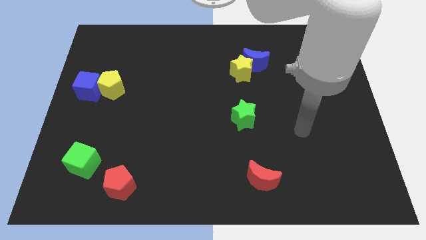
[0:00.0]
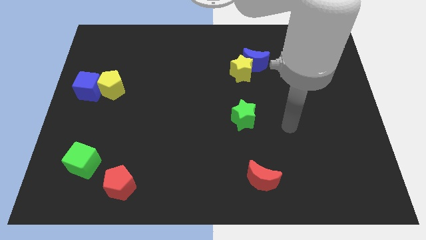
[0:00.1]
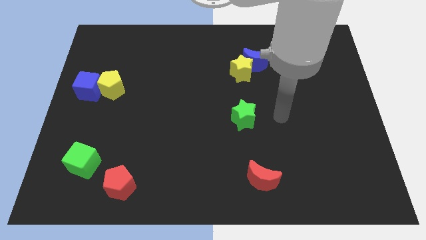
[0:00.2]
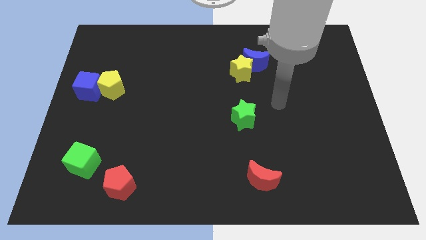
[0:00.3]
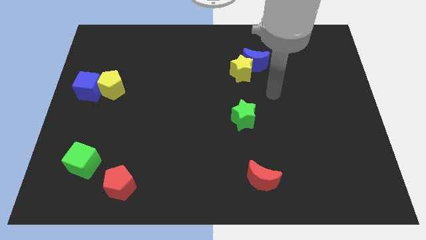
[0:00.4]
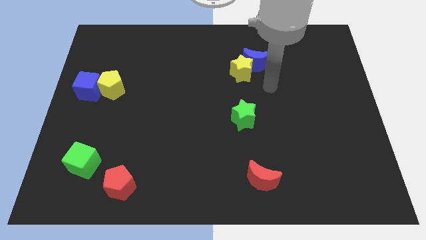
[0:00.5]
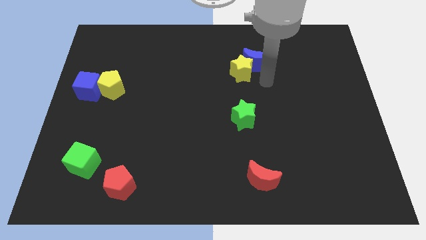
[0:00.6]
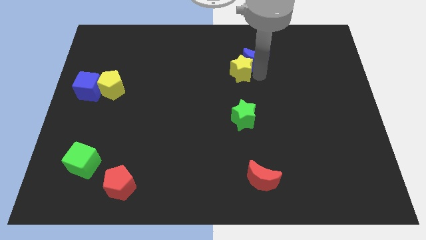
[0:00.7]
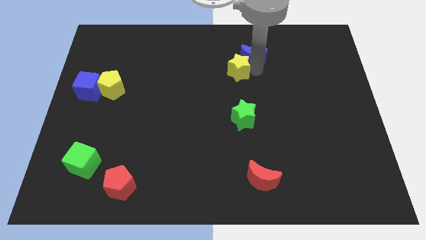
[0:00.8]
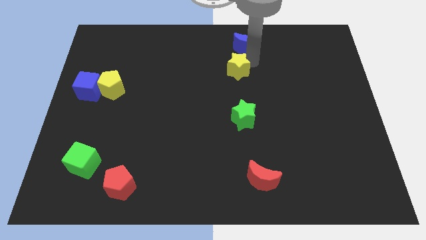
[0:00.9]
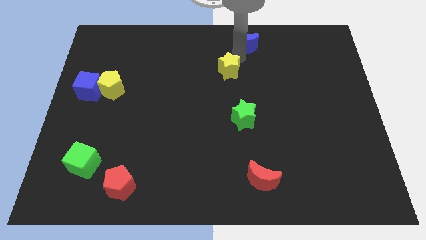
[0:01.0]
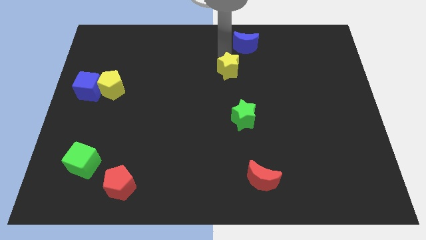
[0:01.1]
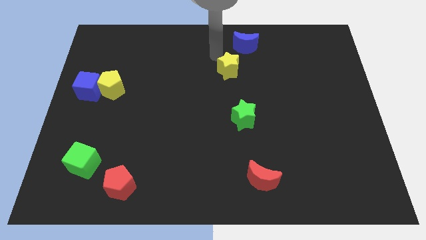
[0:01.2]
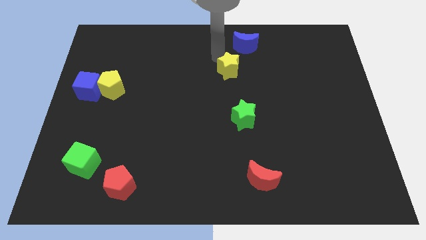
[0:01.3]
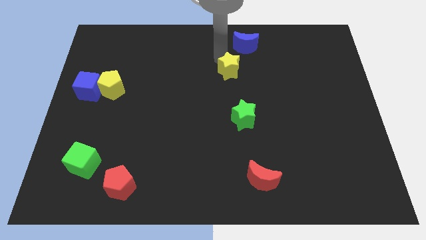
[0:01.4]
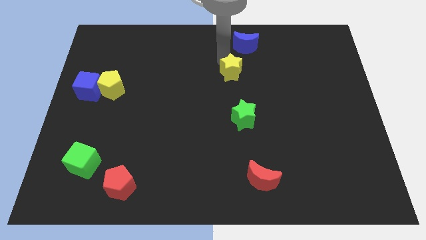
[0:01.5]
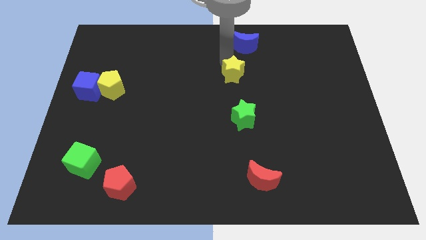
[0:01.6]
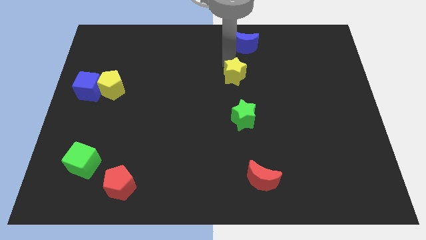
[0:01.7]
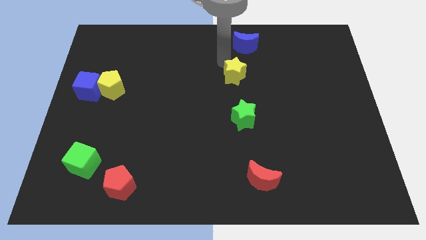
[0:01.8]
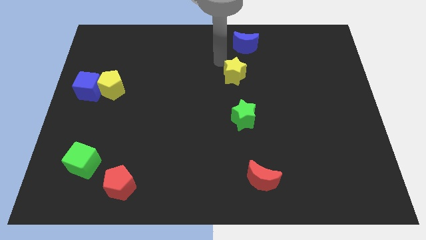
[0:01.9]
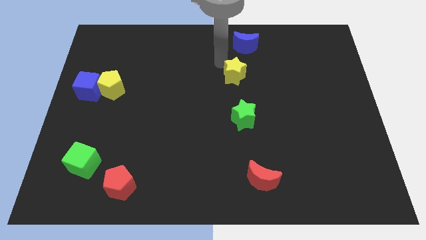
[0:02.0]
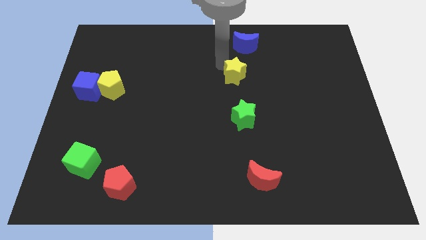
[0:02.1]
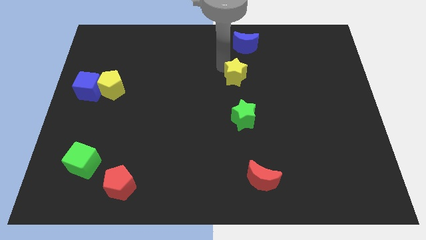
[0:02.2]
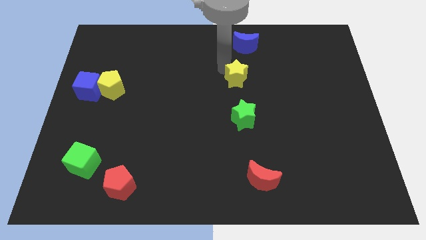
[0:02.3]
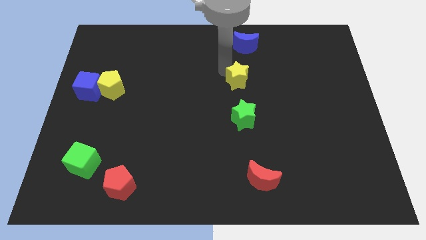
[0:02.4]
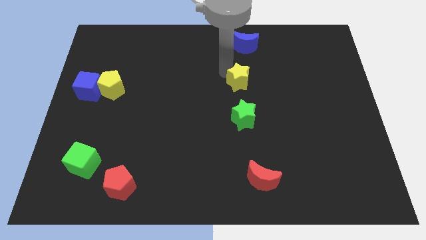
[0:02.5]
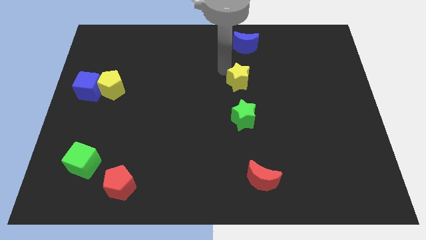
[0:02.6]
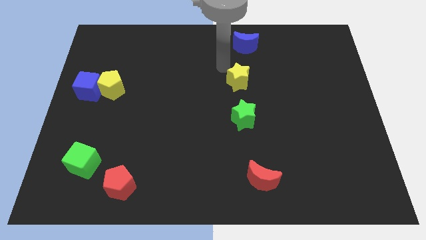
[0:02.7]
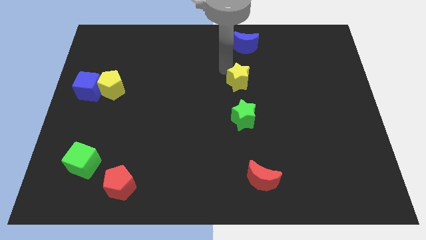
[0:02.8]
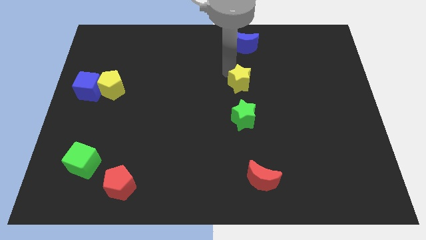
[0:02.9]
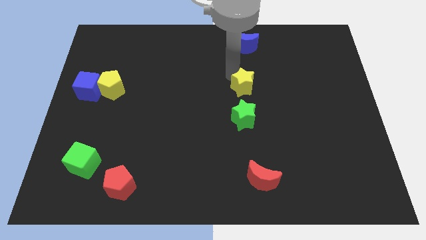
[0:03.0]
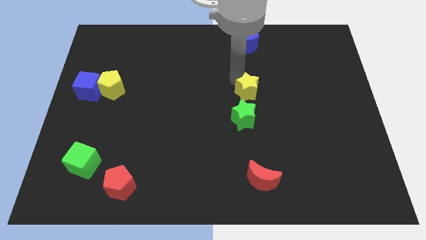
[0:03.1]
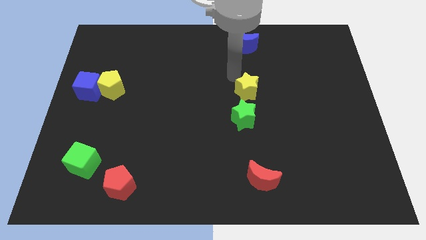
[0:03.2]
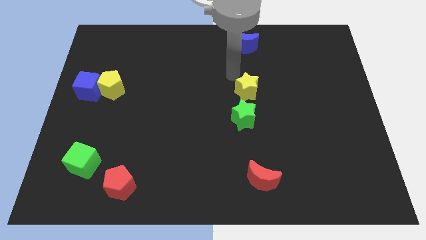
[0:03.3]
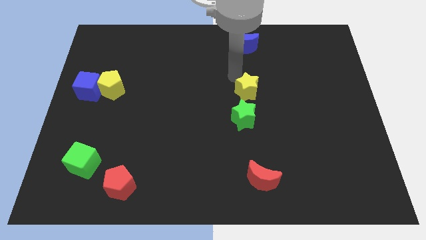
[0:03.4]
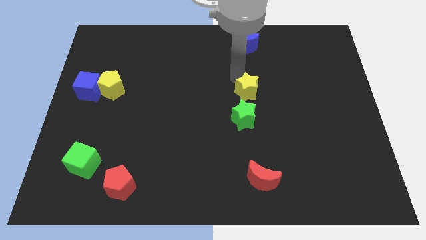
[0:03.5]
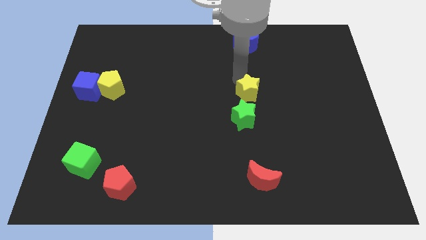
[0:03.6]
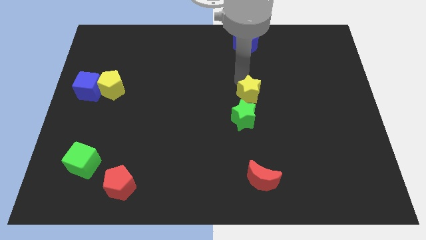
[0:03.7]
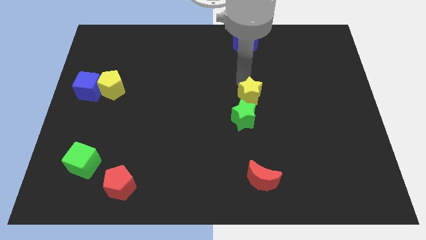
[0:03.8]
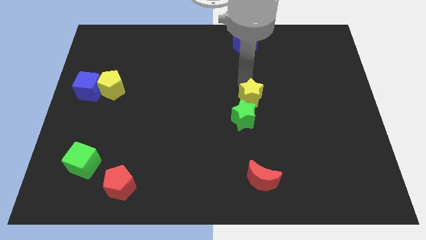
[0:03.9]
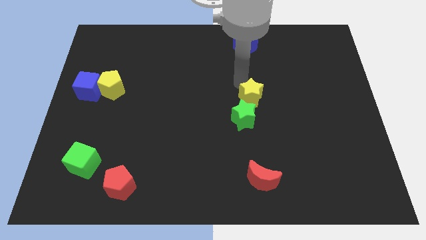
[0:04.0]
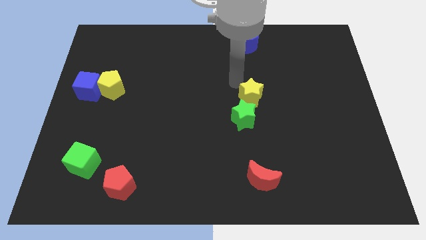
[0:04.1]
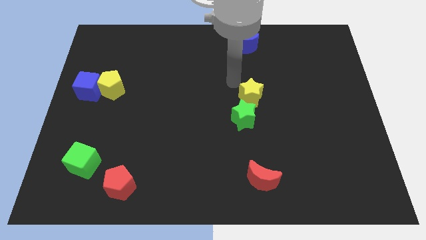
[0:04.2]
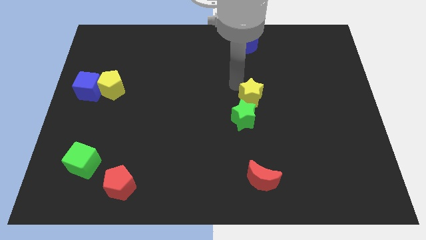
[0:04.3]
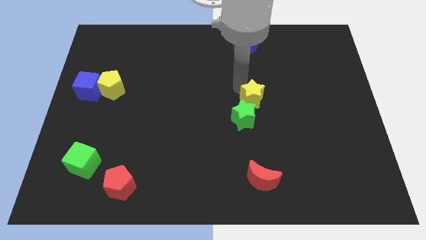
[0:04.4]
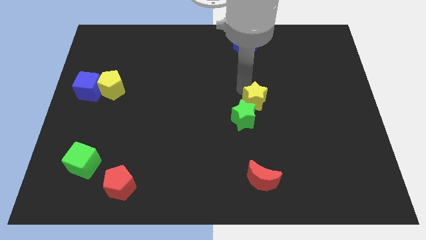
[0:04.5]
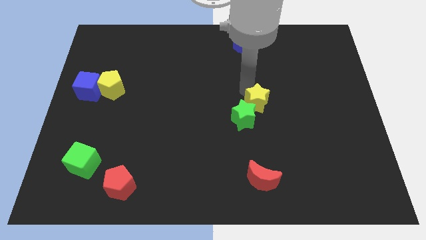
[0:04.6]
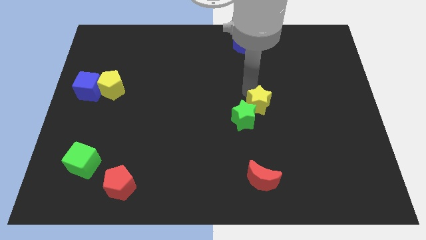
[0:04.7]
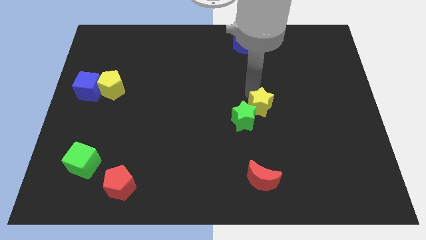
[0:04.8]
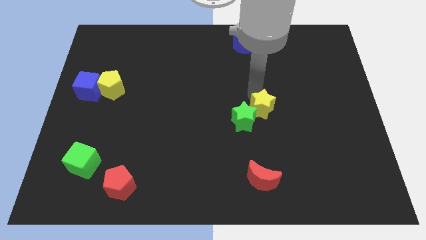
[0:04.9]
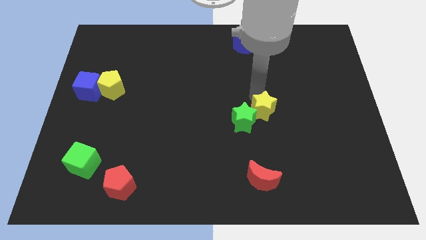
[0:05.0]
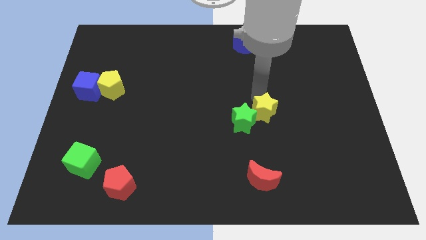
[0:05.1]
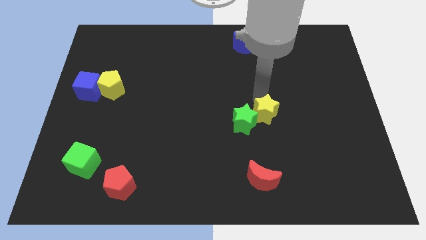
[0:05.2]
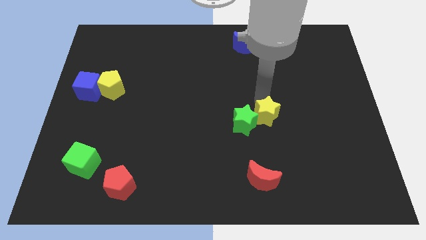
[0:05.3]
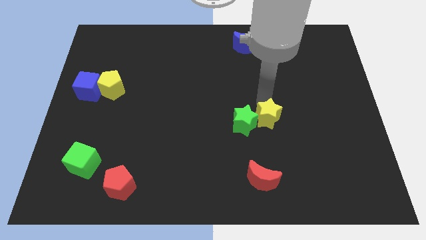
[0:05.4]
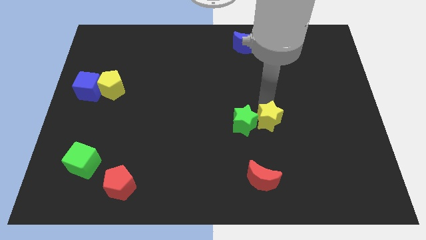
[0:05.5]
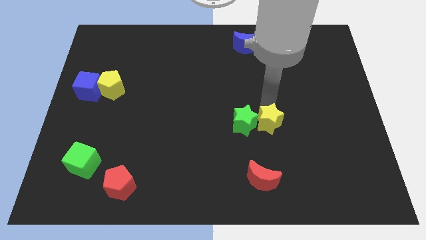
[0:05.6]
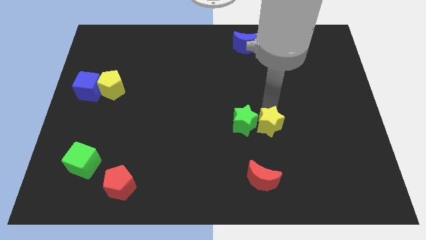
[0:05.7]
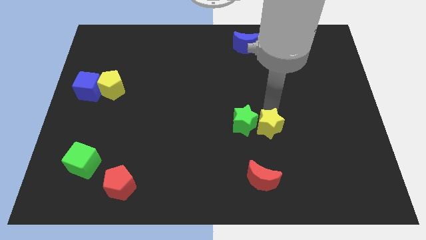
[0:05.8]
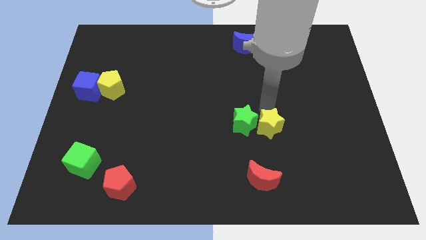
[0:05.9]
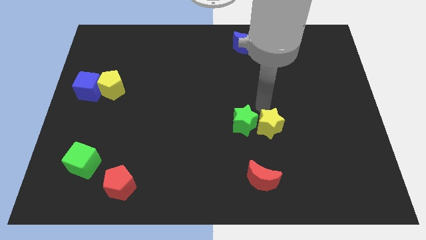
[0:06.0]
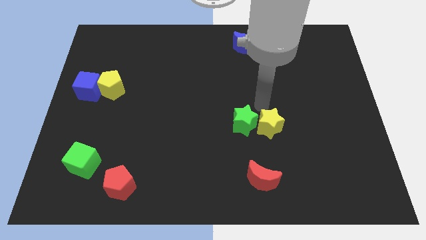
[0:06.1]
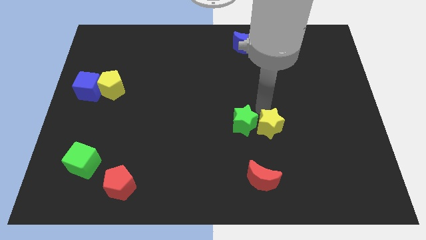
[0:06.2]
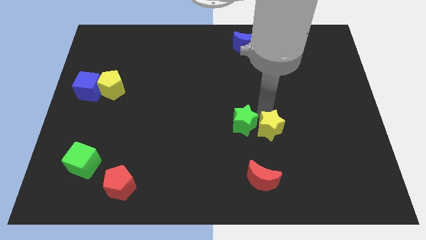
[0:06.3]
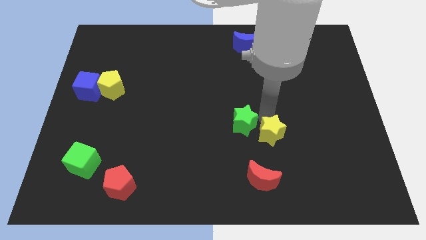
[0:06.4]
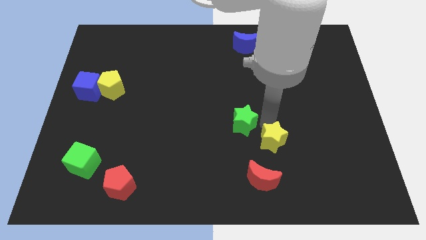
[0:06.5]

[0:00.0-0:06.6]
push the yellow star diagonally up and to the right of the red moon

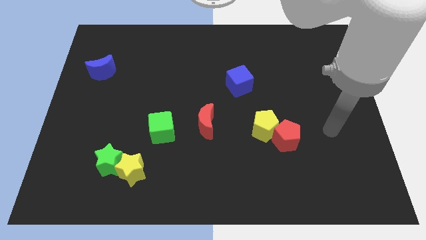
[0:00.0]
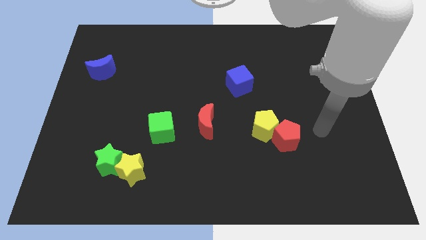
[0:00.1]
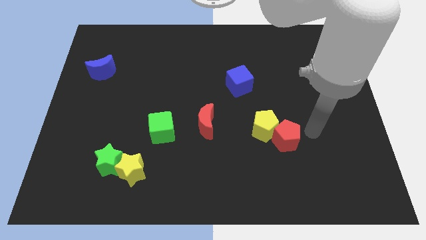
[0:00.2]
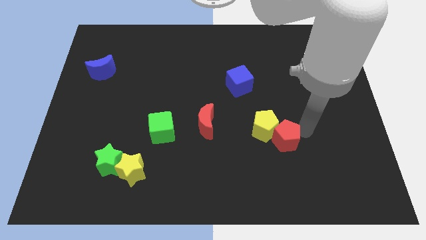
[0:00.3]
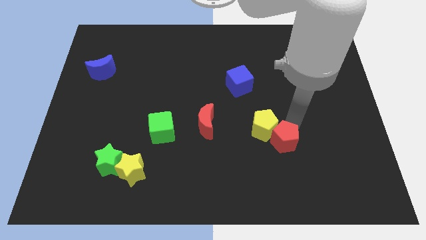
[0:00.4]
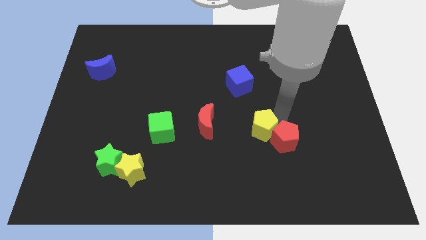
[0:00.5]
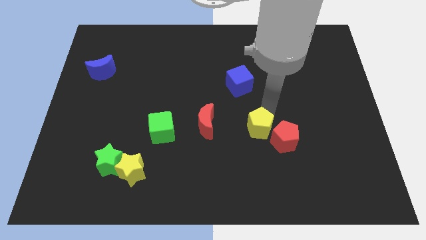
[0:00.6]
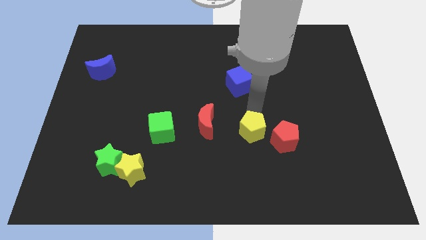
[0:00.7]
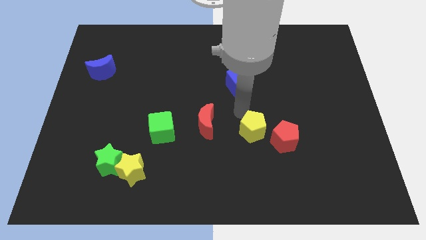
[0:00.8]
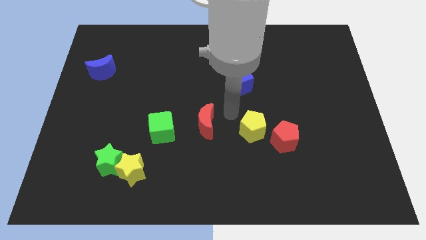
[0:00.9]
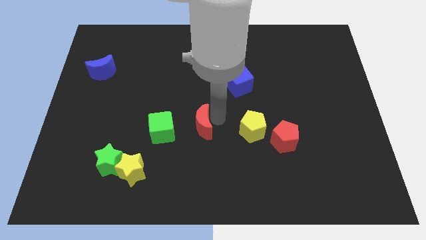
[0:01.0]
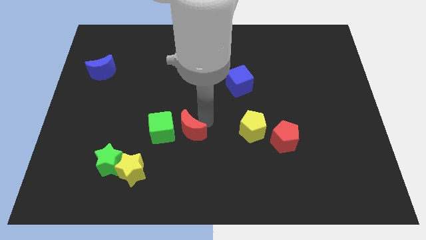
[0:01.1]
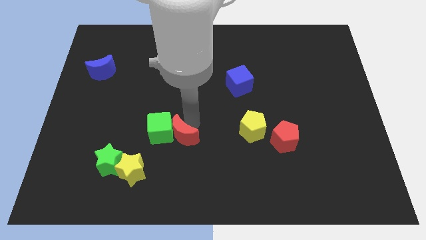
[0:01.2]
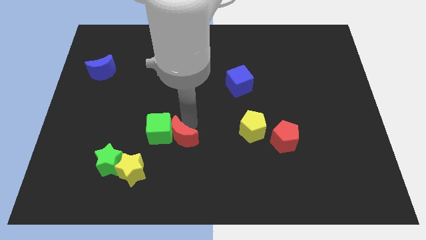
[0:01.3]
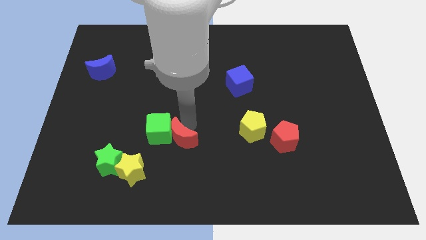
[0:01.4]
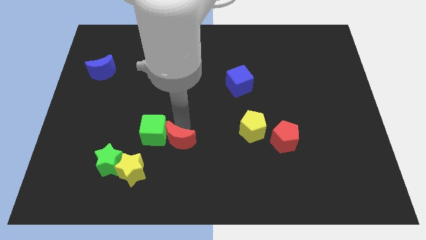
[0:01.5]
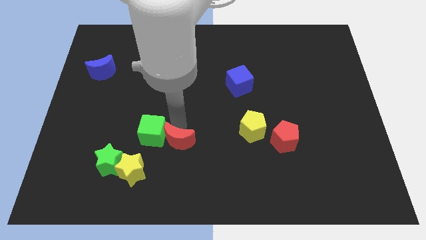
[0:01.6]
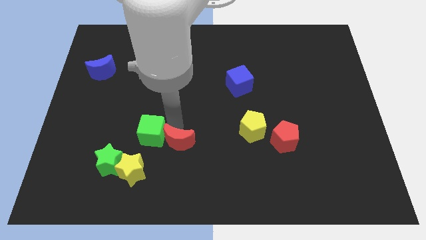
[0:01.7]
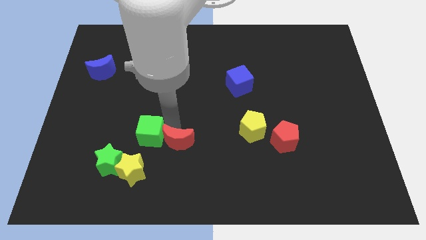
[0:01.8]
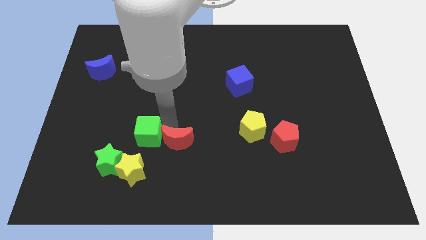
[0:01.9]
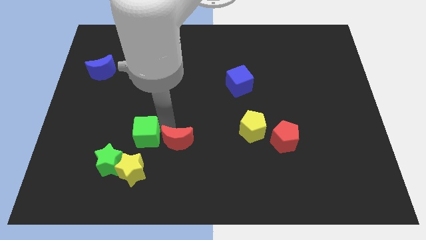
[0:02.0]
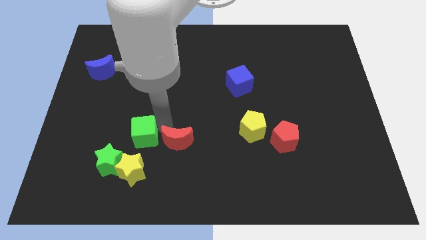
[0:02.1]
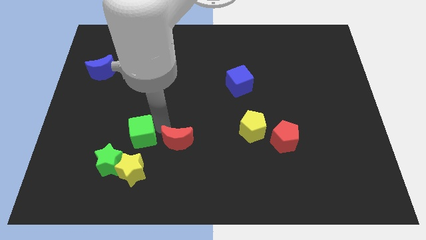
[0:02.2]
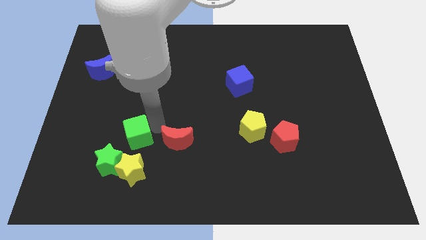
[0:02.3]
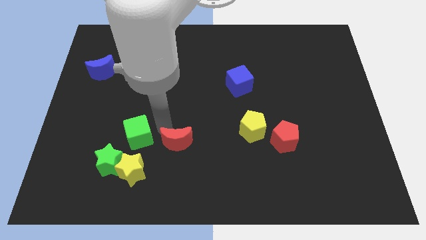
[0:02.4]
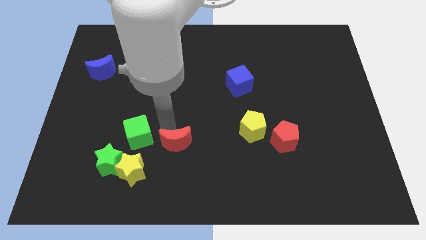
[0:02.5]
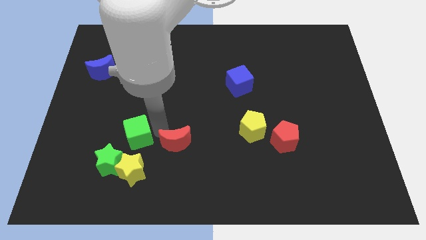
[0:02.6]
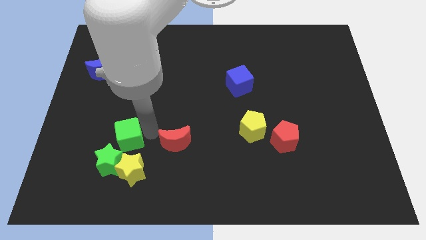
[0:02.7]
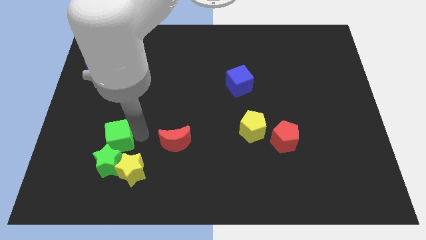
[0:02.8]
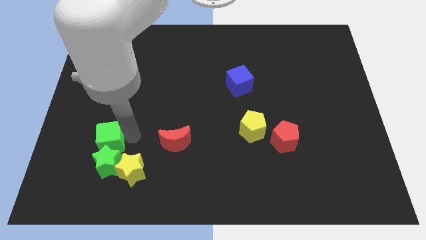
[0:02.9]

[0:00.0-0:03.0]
slide the green cube to the top left side of the green star
